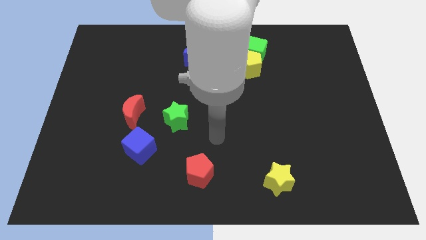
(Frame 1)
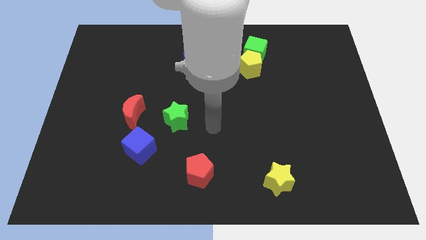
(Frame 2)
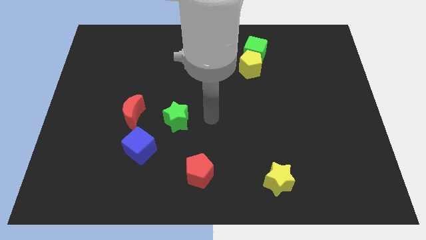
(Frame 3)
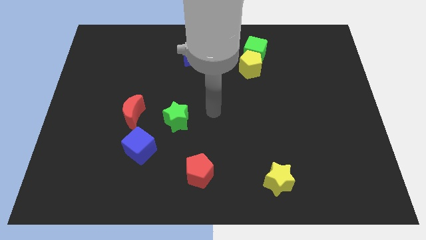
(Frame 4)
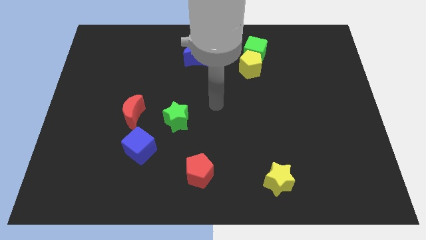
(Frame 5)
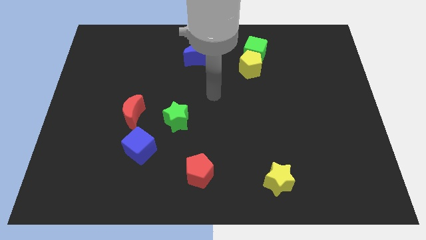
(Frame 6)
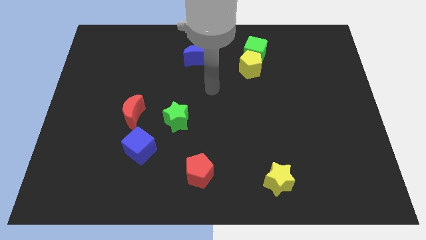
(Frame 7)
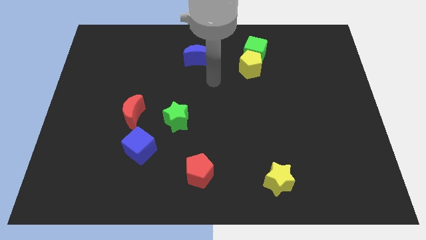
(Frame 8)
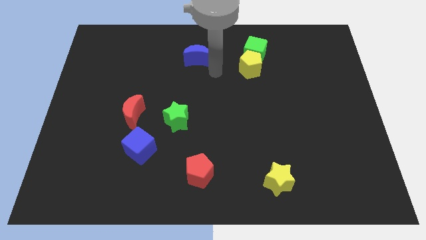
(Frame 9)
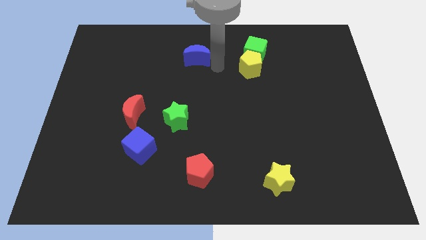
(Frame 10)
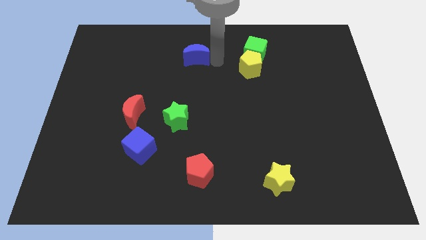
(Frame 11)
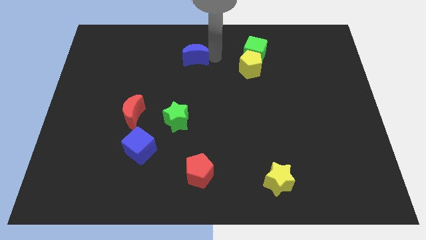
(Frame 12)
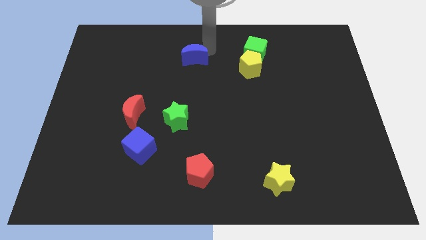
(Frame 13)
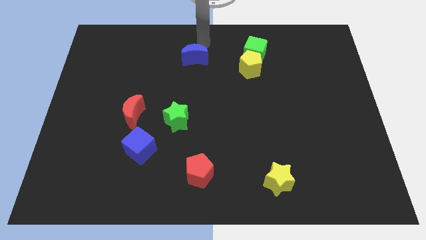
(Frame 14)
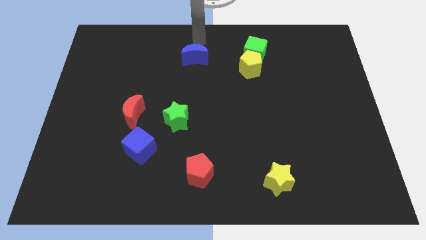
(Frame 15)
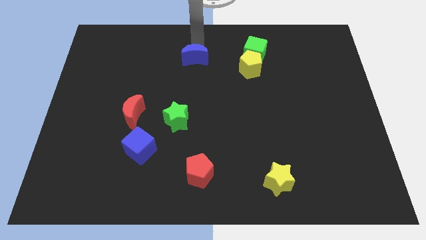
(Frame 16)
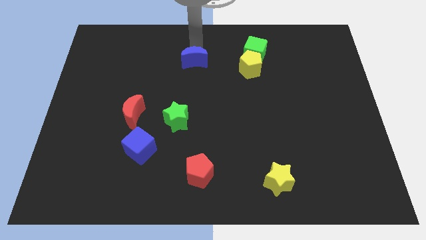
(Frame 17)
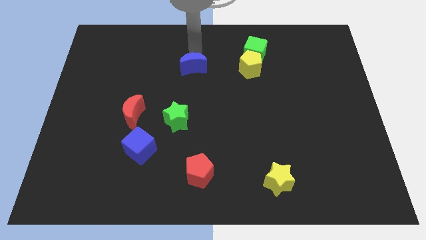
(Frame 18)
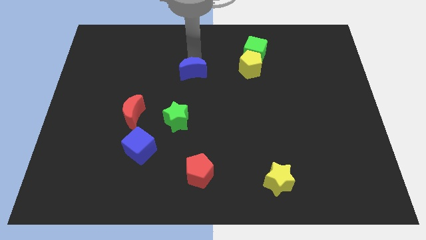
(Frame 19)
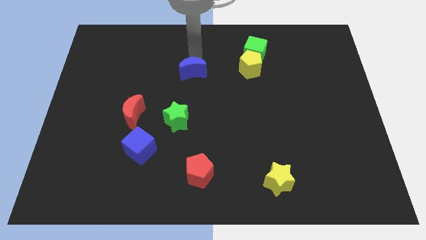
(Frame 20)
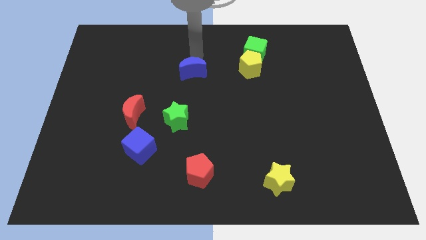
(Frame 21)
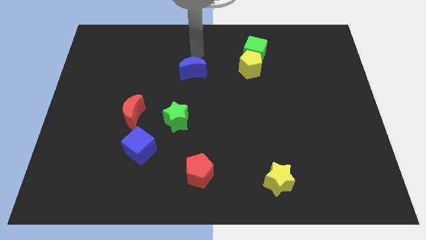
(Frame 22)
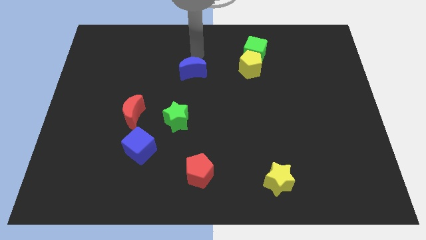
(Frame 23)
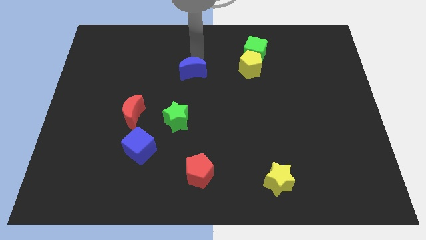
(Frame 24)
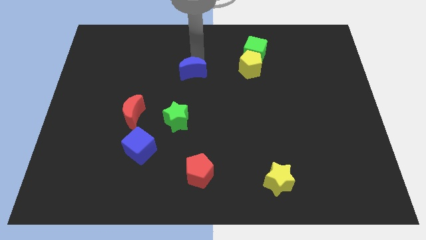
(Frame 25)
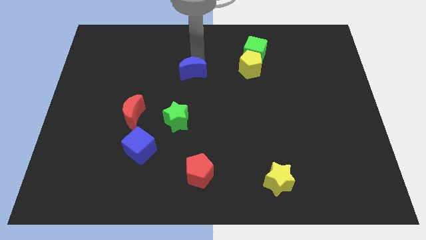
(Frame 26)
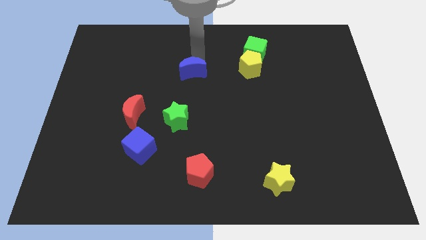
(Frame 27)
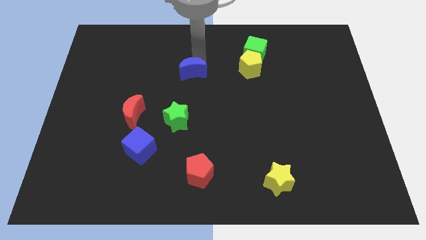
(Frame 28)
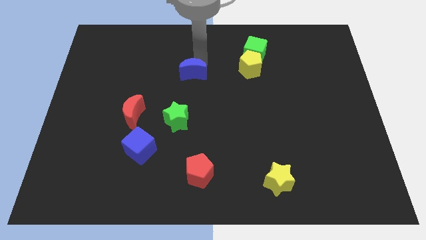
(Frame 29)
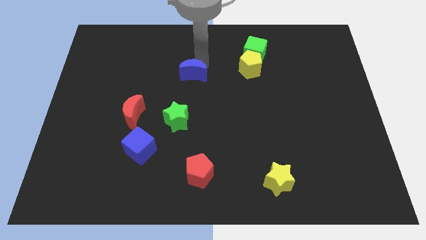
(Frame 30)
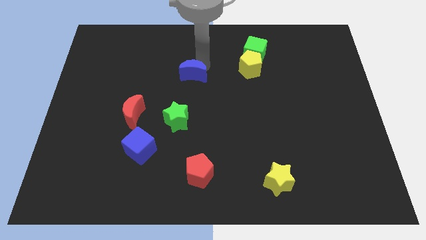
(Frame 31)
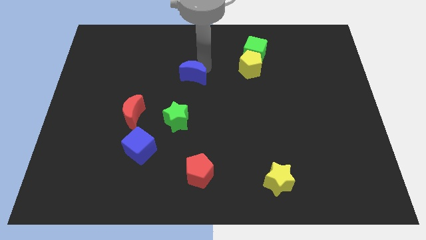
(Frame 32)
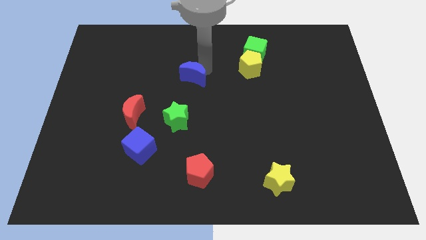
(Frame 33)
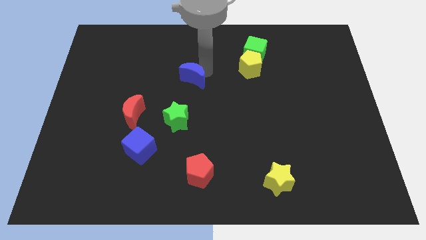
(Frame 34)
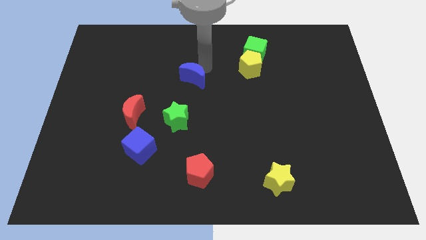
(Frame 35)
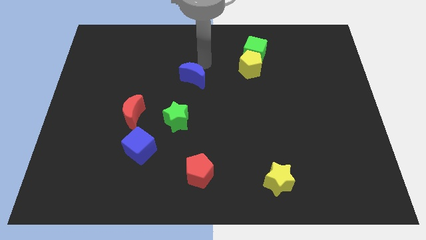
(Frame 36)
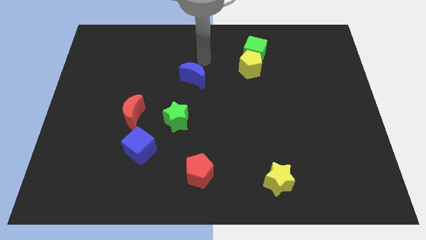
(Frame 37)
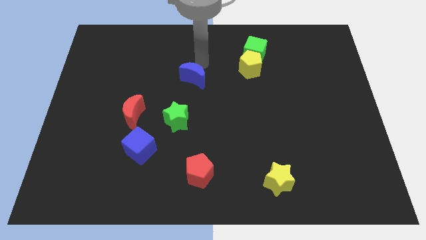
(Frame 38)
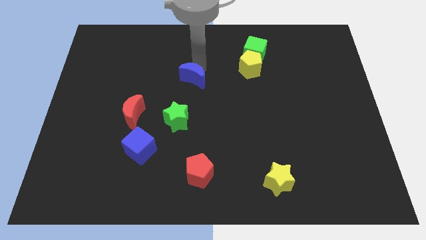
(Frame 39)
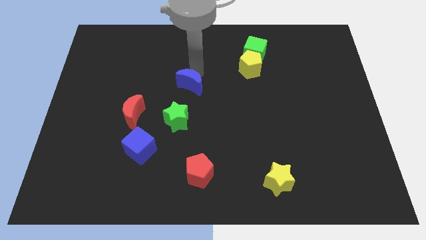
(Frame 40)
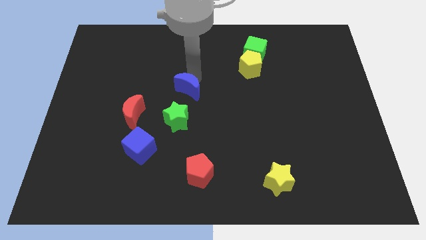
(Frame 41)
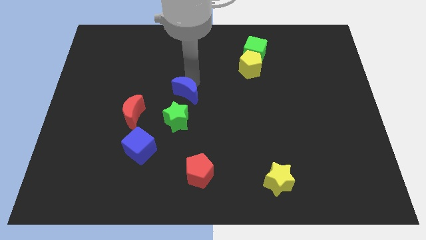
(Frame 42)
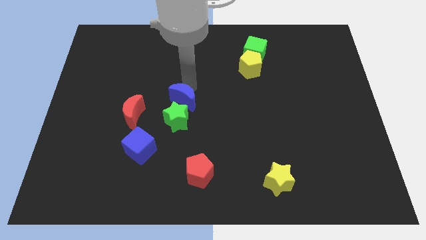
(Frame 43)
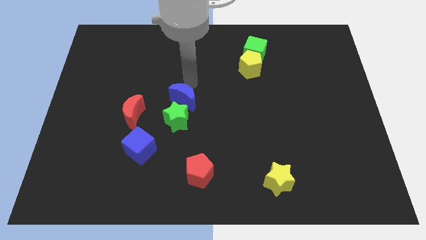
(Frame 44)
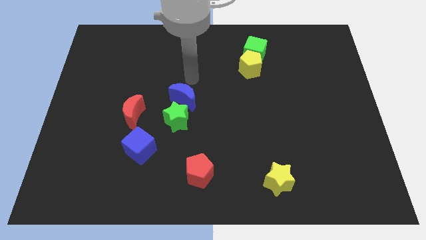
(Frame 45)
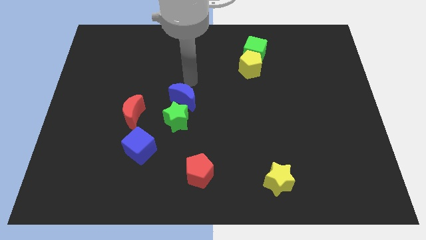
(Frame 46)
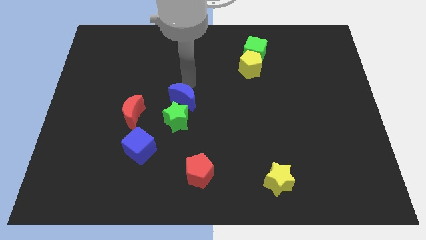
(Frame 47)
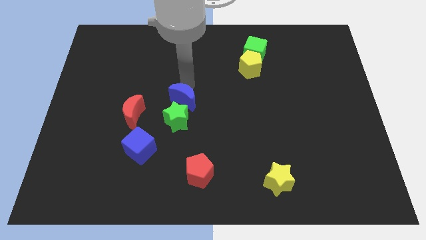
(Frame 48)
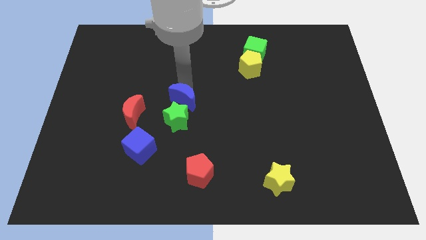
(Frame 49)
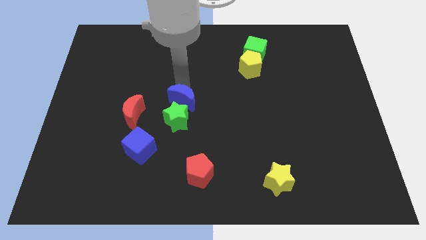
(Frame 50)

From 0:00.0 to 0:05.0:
move the blue moon close to the green star

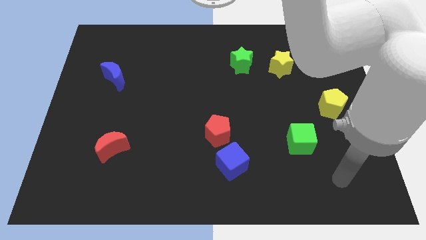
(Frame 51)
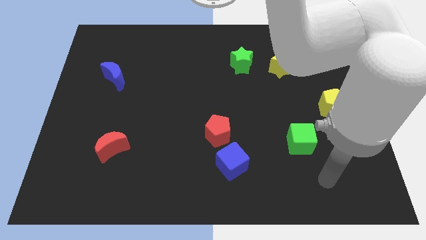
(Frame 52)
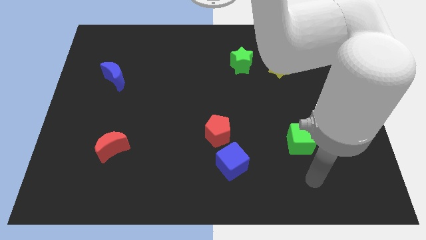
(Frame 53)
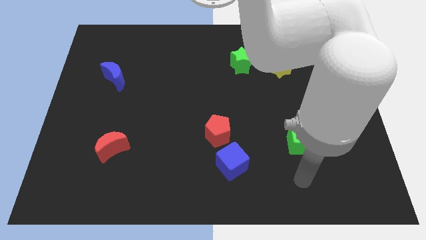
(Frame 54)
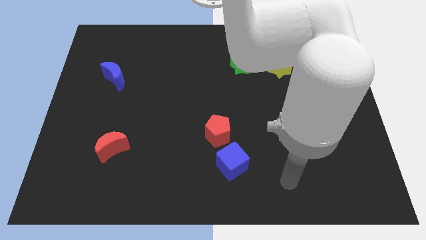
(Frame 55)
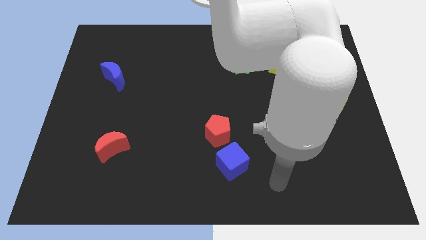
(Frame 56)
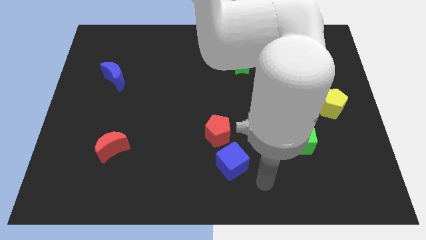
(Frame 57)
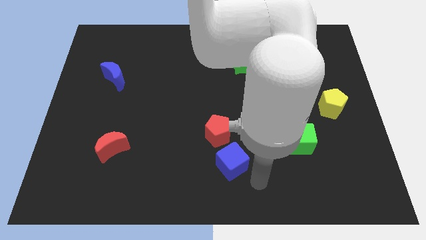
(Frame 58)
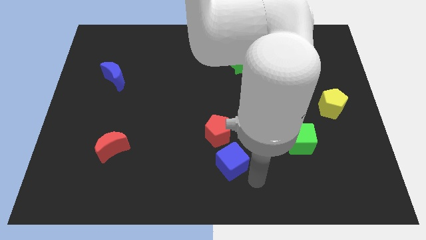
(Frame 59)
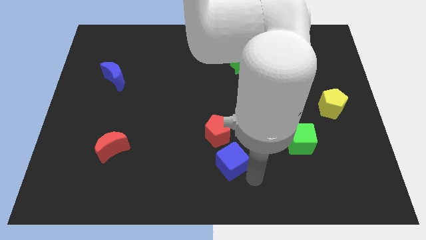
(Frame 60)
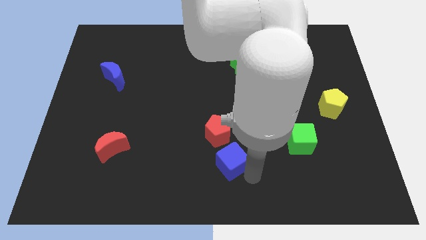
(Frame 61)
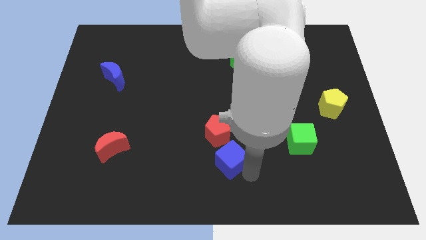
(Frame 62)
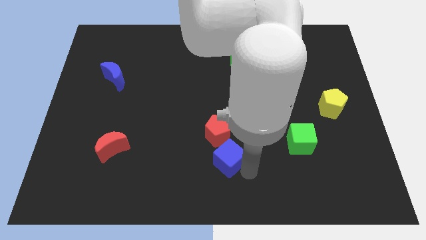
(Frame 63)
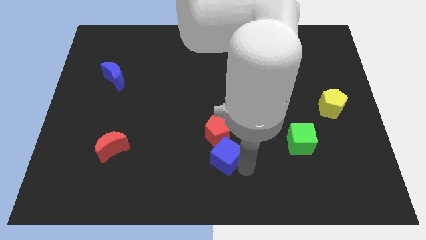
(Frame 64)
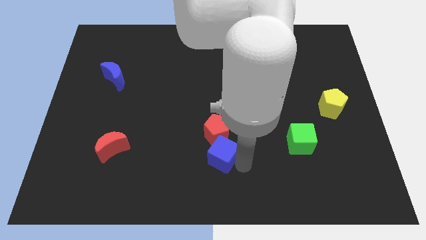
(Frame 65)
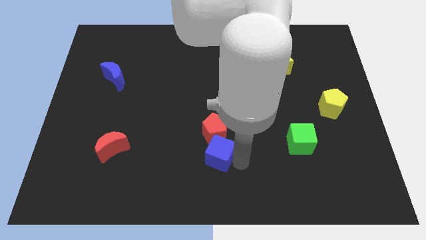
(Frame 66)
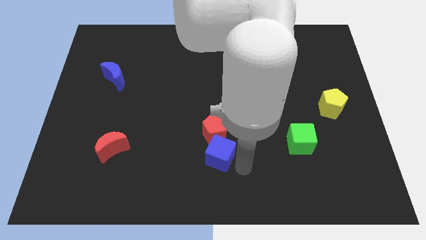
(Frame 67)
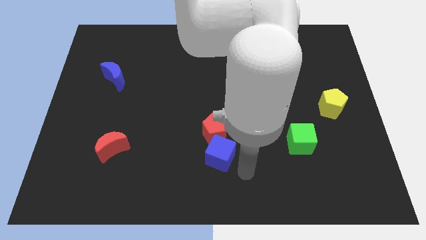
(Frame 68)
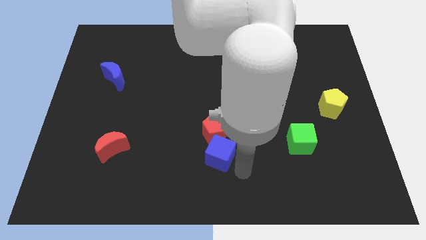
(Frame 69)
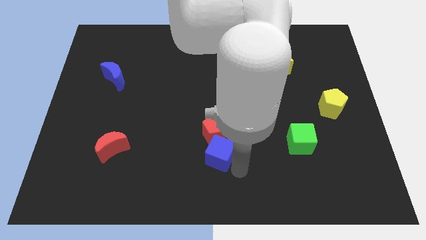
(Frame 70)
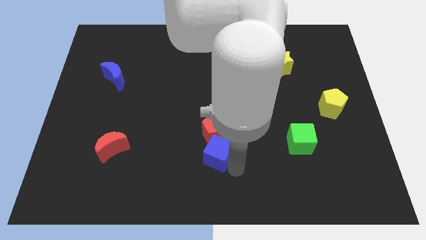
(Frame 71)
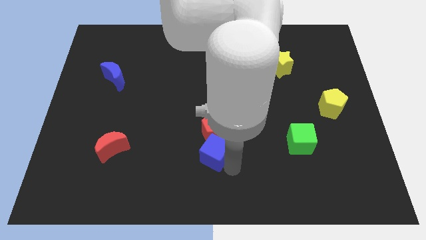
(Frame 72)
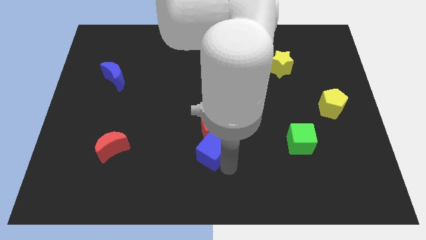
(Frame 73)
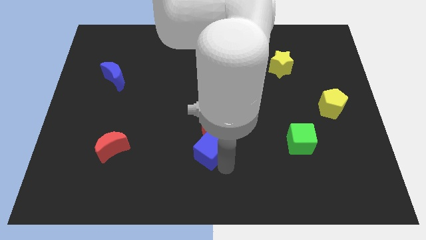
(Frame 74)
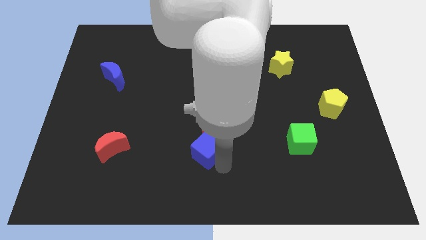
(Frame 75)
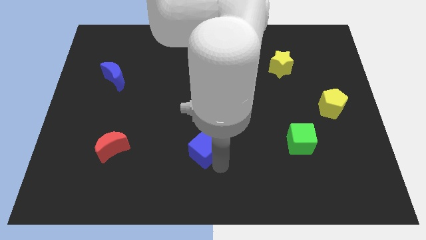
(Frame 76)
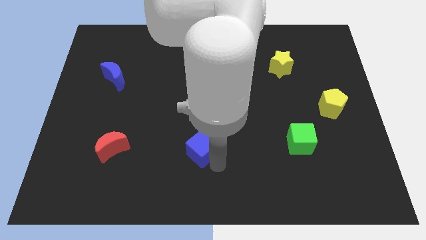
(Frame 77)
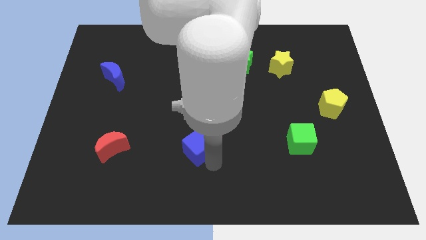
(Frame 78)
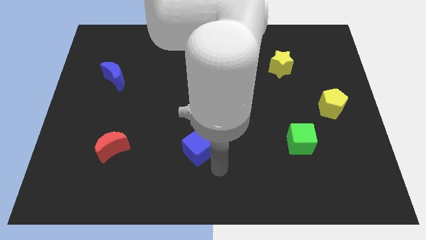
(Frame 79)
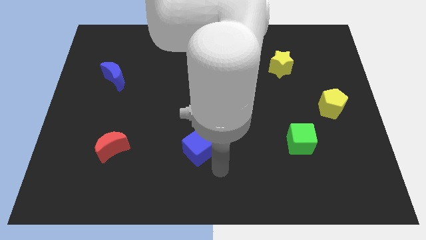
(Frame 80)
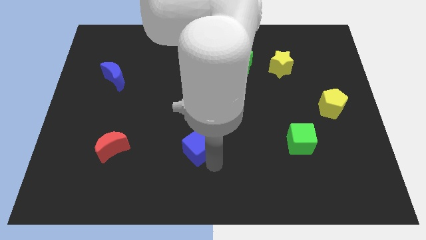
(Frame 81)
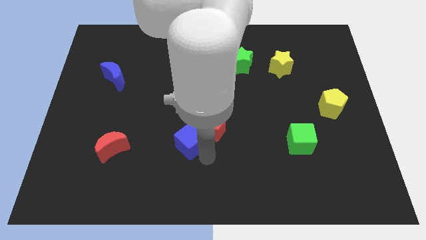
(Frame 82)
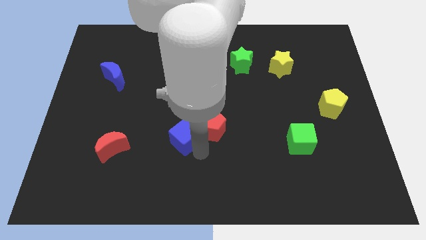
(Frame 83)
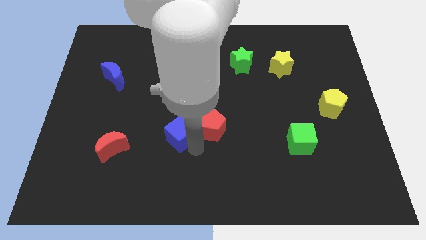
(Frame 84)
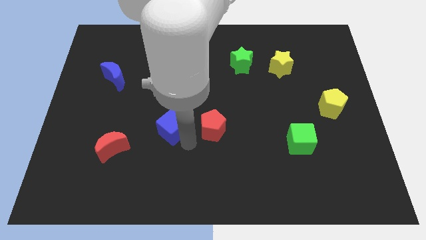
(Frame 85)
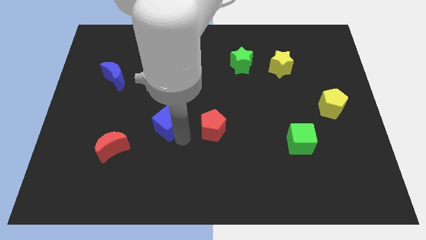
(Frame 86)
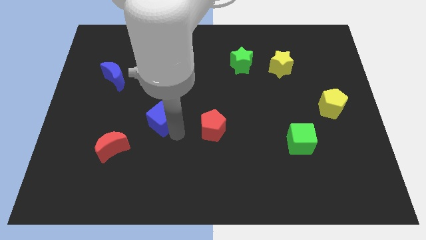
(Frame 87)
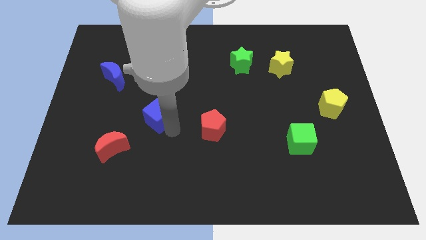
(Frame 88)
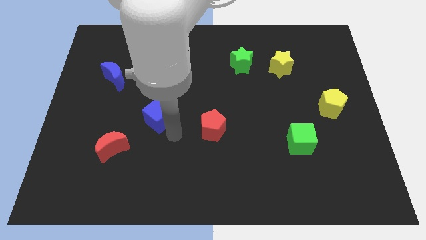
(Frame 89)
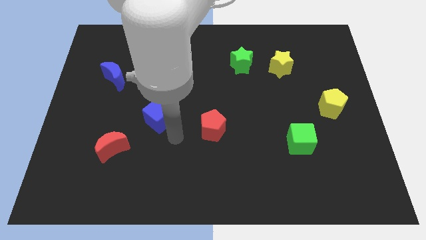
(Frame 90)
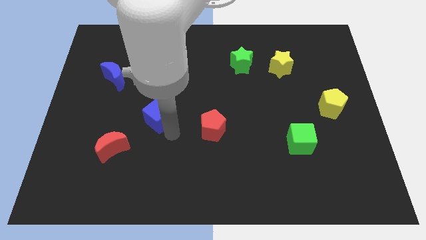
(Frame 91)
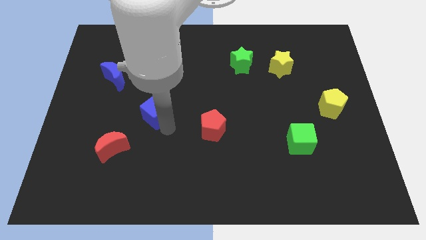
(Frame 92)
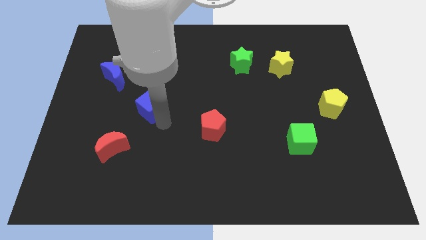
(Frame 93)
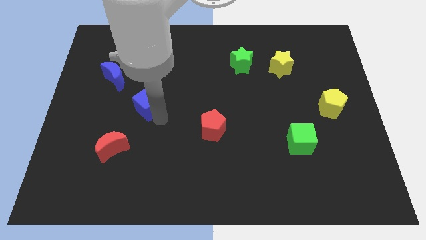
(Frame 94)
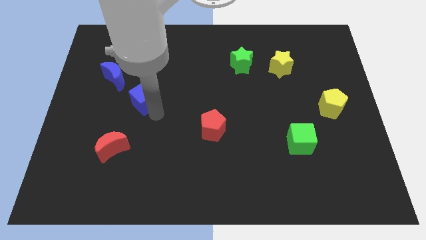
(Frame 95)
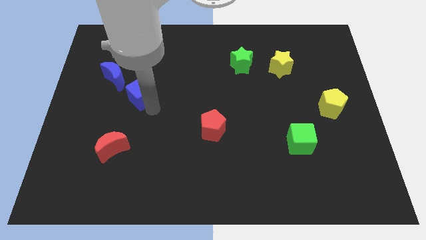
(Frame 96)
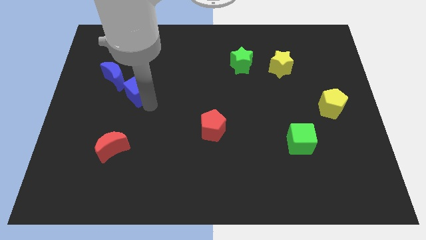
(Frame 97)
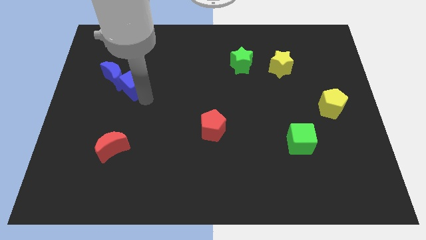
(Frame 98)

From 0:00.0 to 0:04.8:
move the blue cube close to the blue moon
